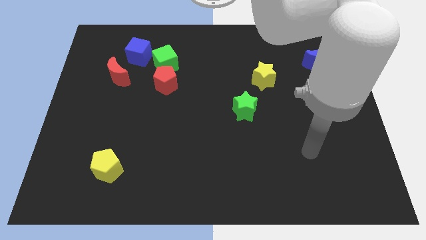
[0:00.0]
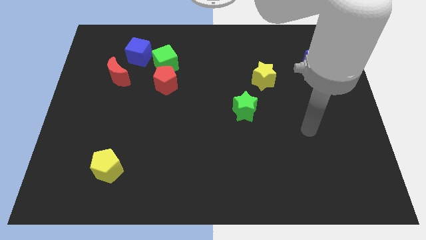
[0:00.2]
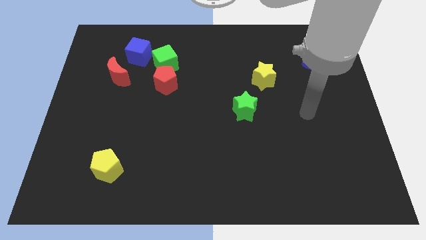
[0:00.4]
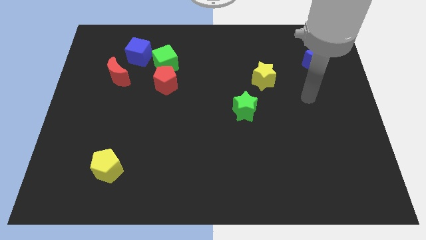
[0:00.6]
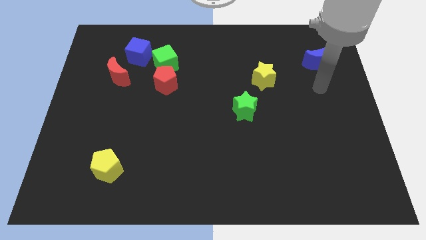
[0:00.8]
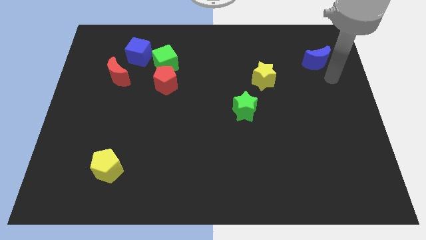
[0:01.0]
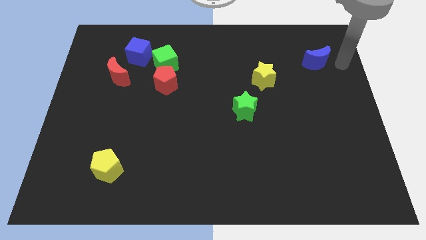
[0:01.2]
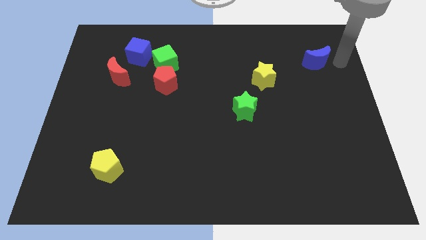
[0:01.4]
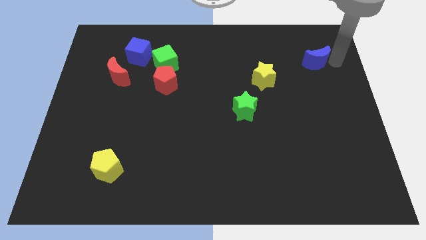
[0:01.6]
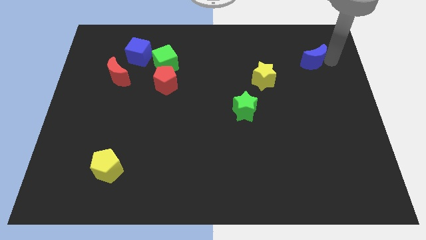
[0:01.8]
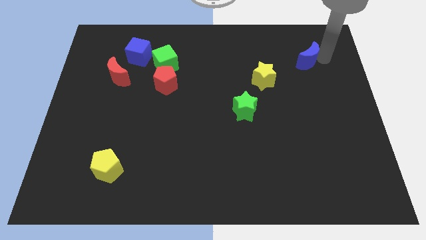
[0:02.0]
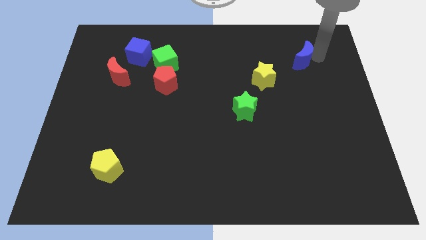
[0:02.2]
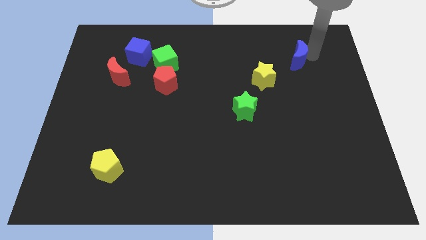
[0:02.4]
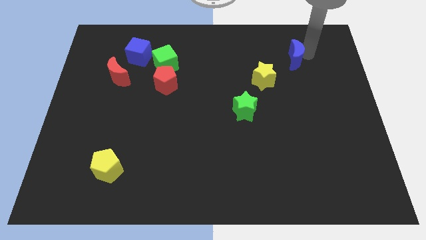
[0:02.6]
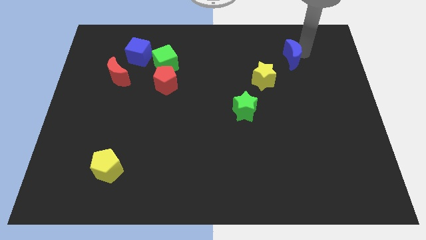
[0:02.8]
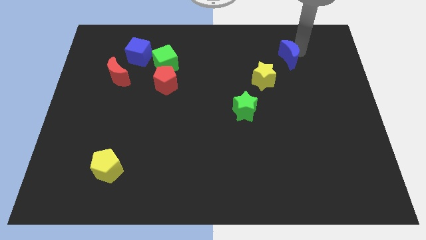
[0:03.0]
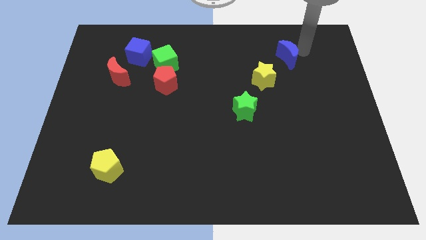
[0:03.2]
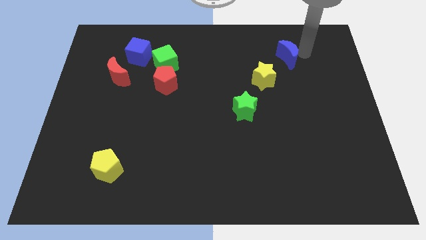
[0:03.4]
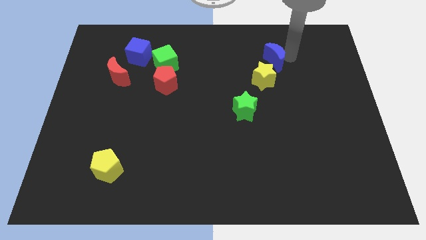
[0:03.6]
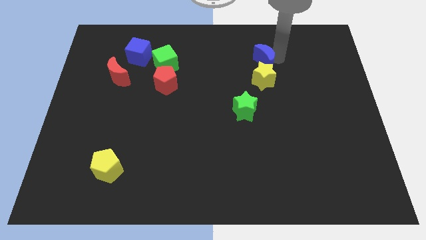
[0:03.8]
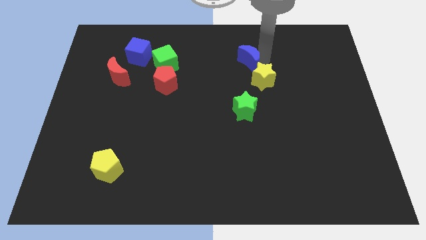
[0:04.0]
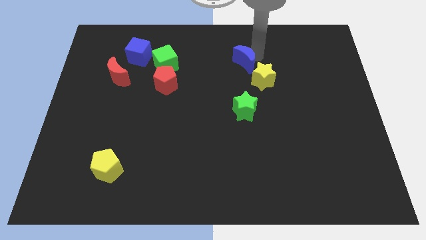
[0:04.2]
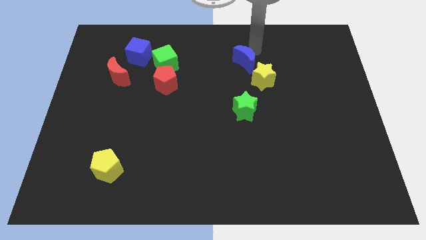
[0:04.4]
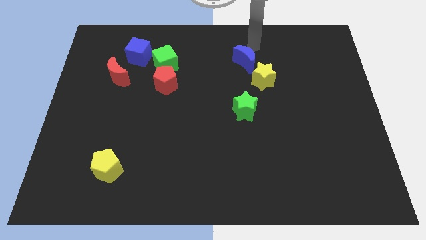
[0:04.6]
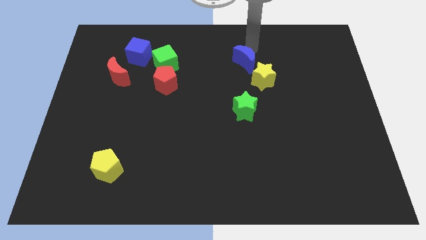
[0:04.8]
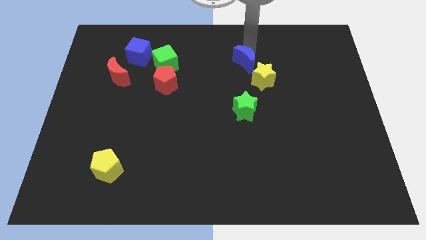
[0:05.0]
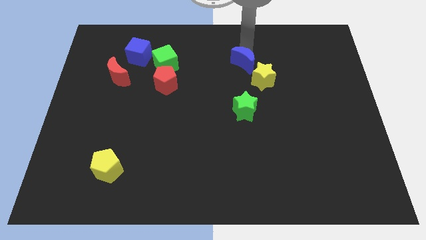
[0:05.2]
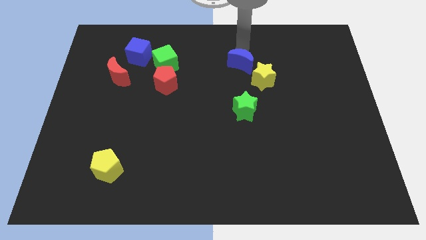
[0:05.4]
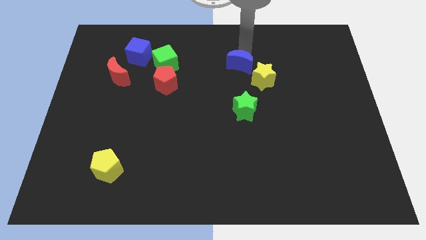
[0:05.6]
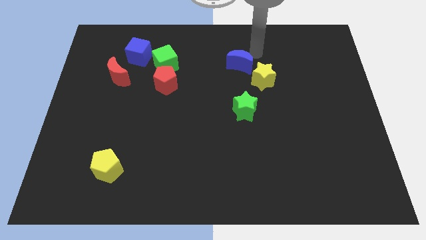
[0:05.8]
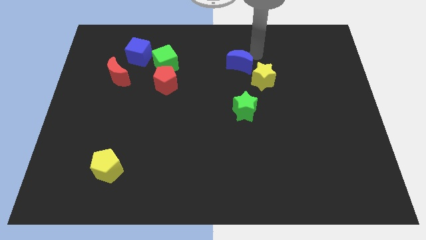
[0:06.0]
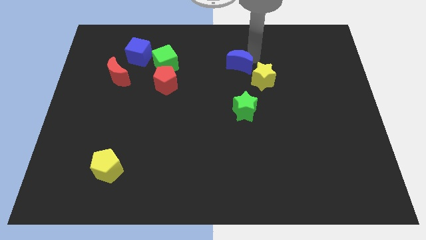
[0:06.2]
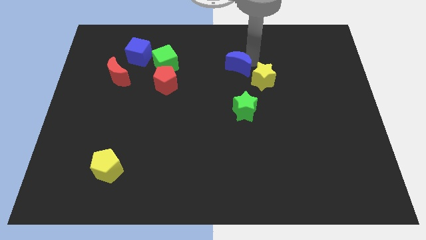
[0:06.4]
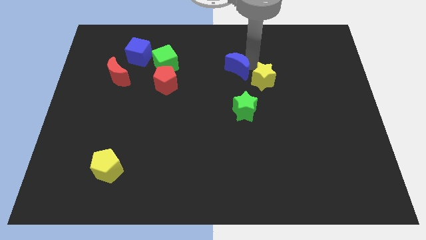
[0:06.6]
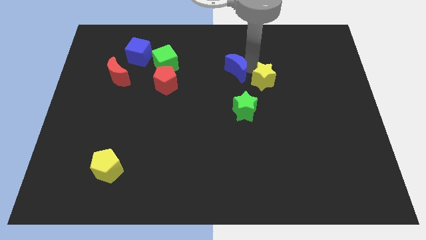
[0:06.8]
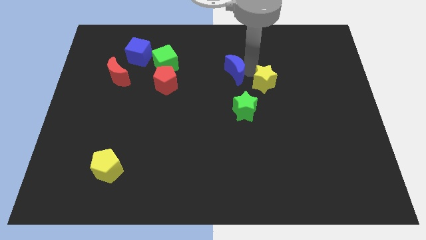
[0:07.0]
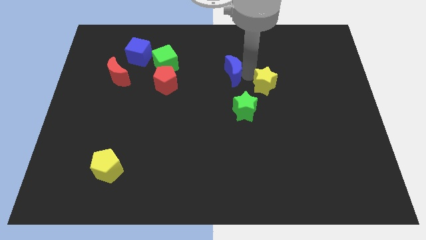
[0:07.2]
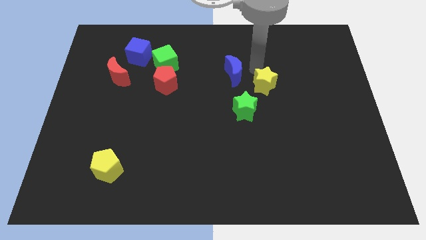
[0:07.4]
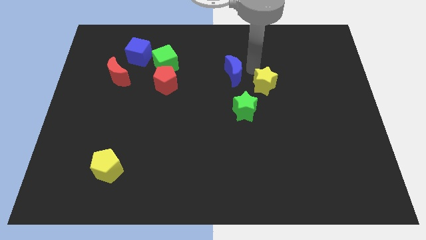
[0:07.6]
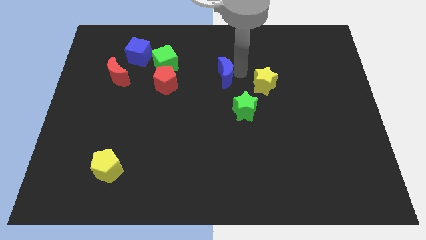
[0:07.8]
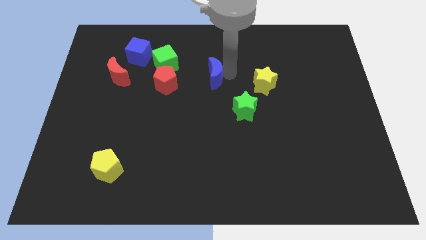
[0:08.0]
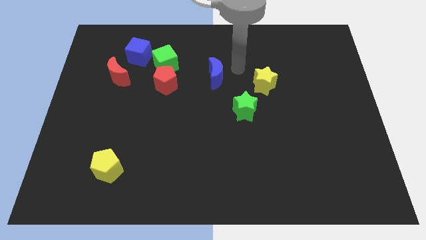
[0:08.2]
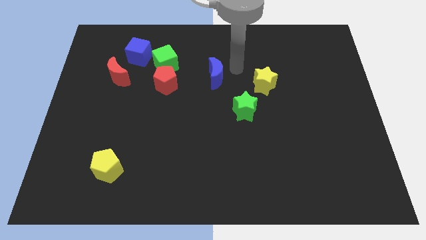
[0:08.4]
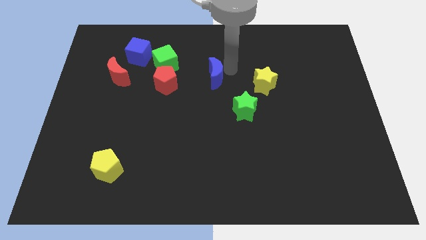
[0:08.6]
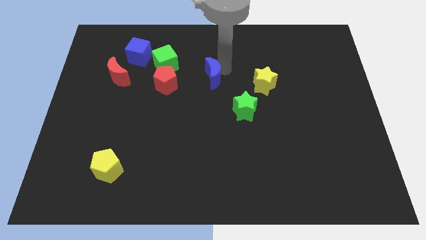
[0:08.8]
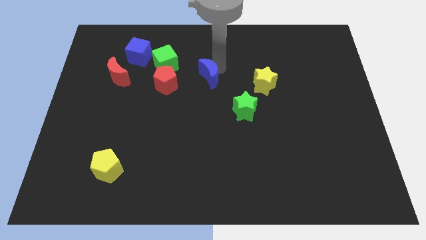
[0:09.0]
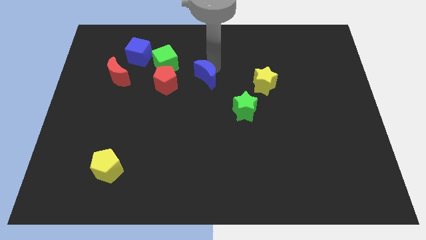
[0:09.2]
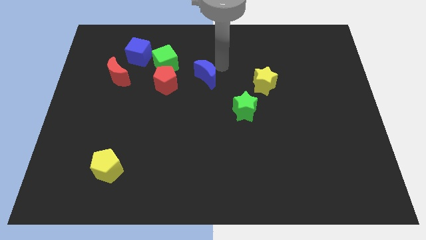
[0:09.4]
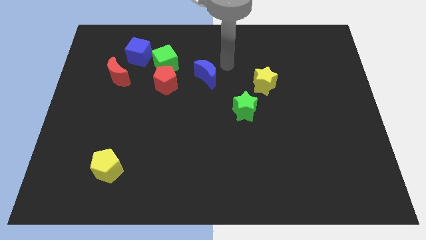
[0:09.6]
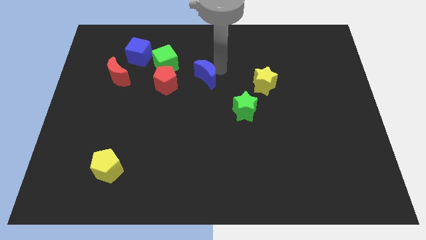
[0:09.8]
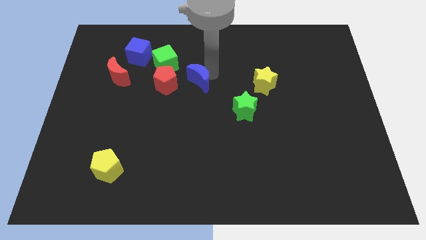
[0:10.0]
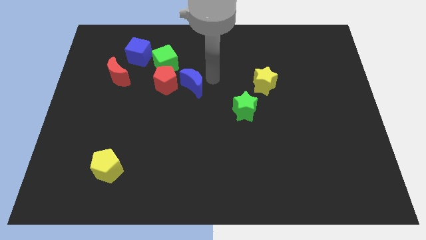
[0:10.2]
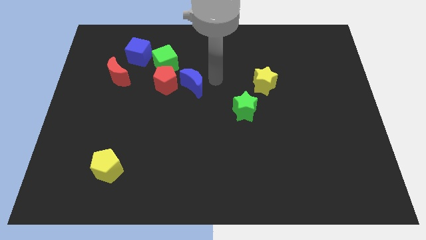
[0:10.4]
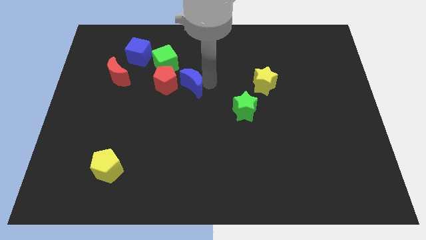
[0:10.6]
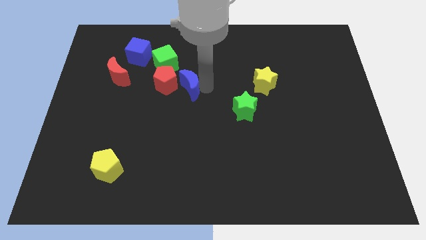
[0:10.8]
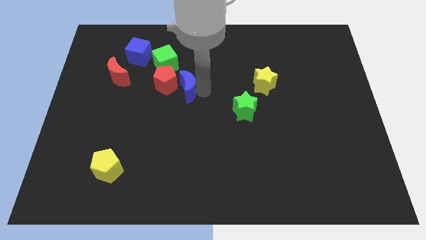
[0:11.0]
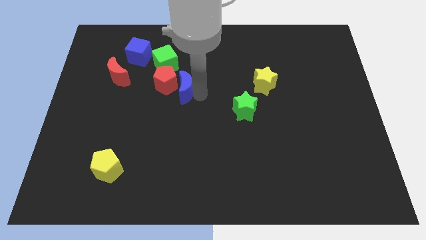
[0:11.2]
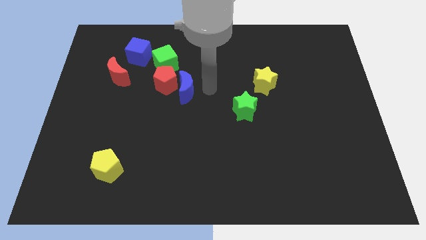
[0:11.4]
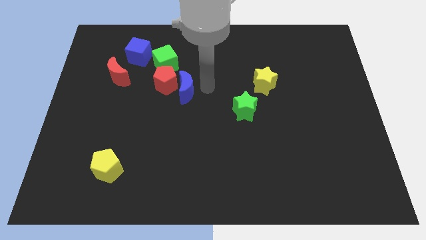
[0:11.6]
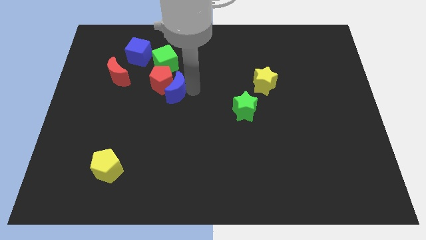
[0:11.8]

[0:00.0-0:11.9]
put the blue moon below the green cube

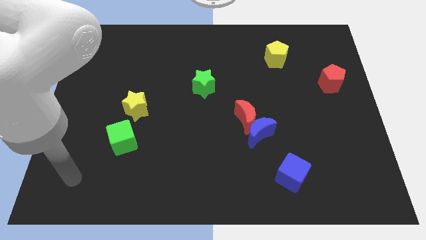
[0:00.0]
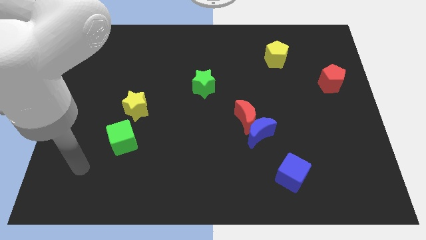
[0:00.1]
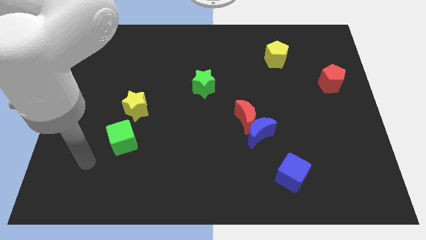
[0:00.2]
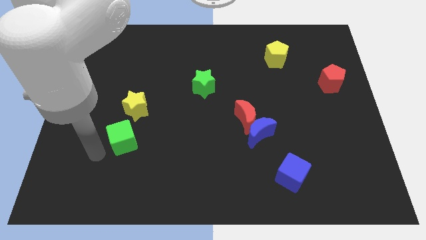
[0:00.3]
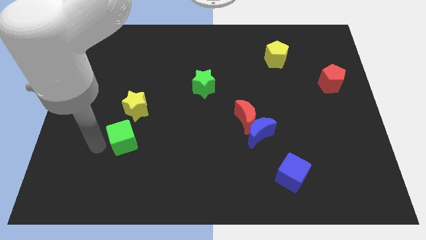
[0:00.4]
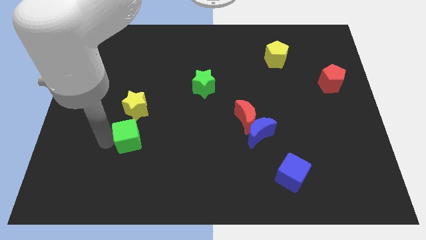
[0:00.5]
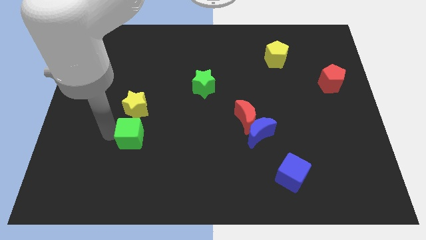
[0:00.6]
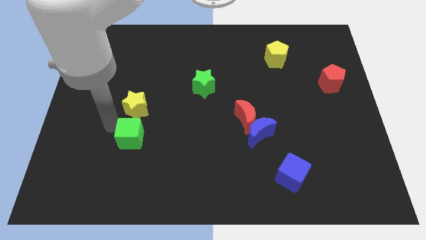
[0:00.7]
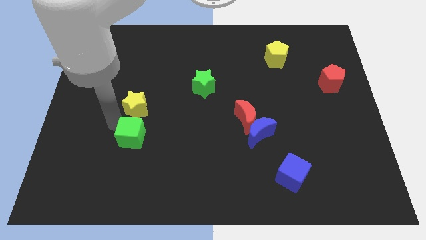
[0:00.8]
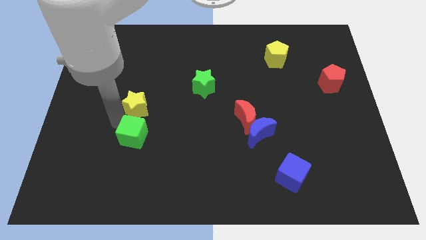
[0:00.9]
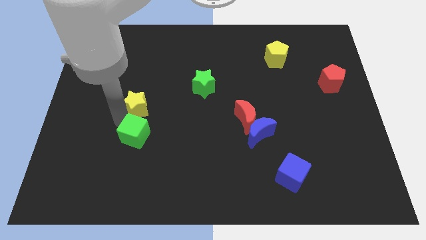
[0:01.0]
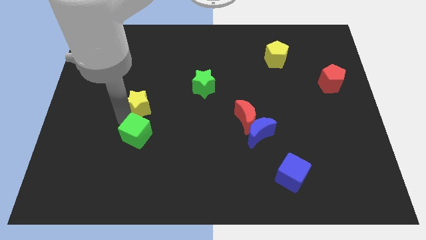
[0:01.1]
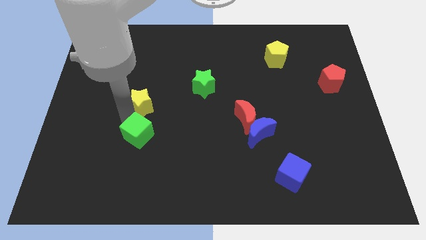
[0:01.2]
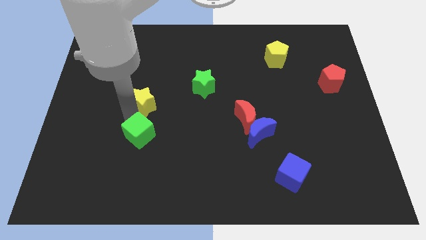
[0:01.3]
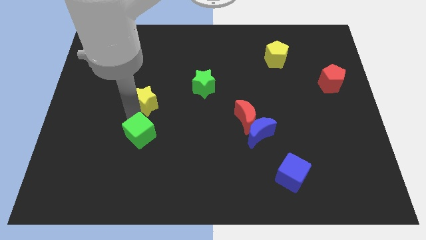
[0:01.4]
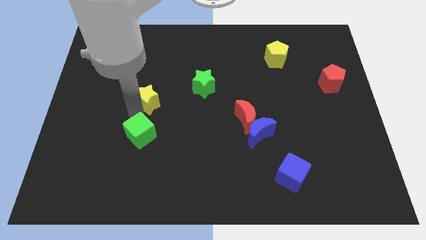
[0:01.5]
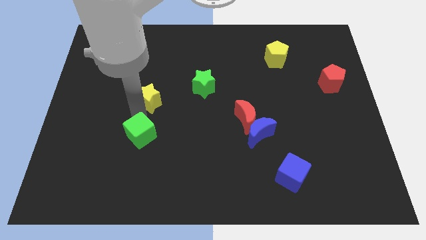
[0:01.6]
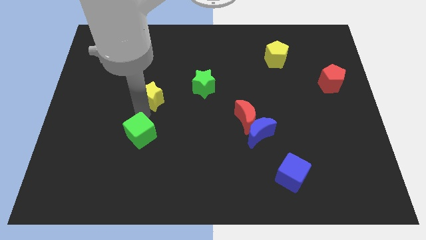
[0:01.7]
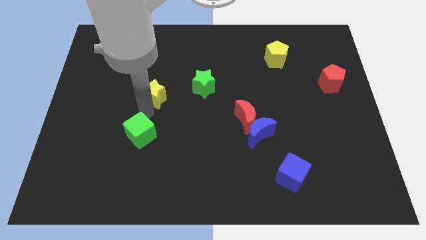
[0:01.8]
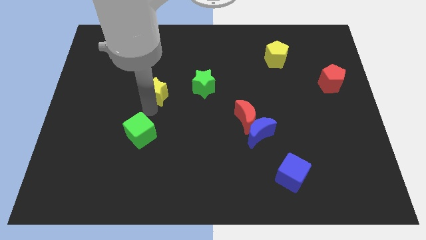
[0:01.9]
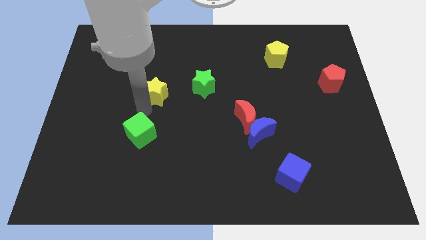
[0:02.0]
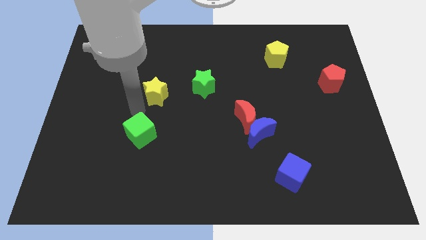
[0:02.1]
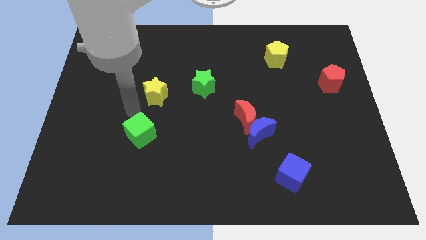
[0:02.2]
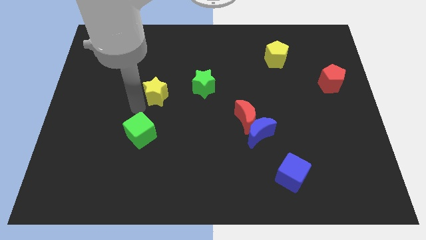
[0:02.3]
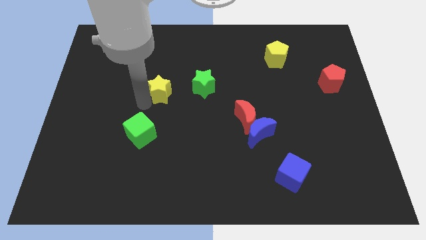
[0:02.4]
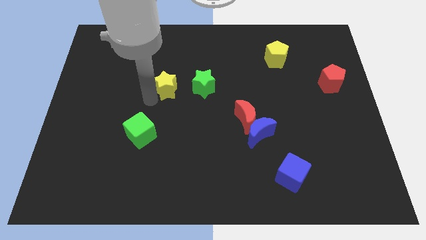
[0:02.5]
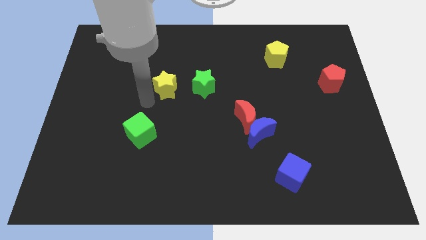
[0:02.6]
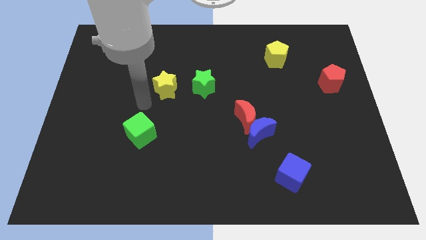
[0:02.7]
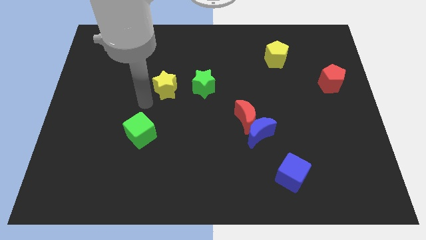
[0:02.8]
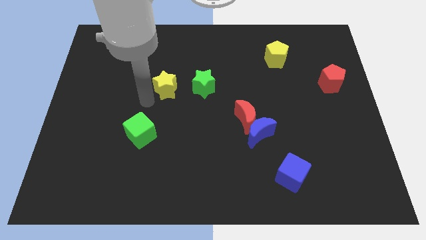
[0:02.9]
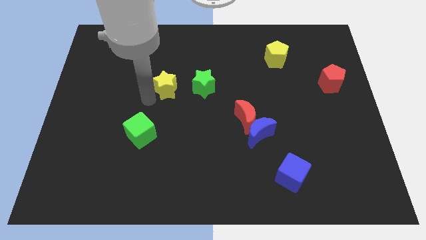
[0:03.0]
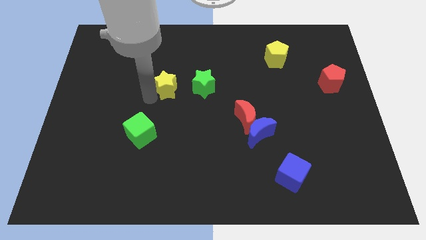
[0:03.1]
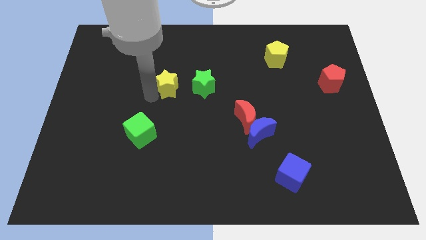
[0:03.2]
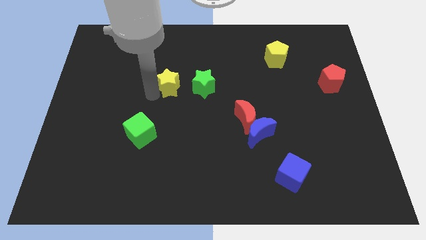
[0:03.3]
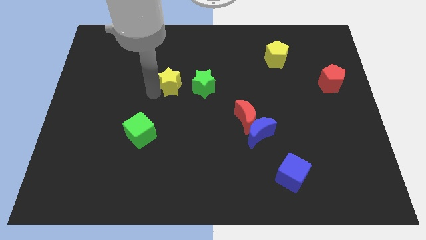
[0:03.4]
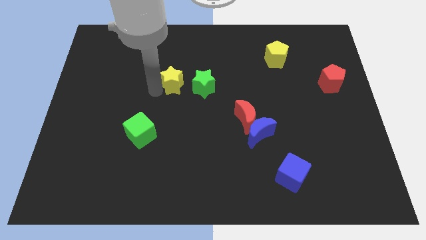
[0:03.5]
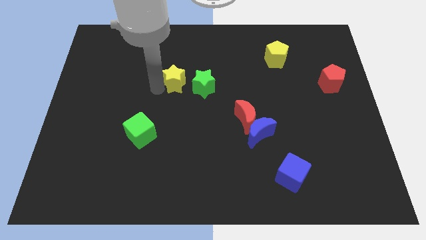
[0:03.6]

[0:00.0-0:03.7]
put the yellow star diagonally up and to the left of the green star
